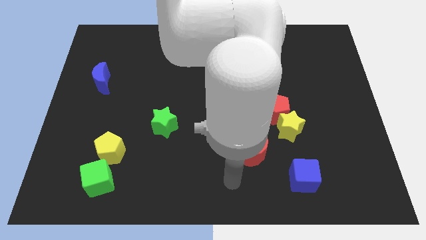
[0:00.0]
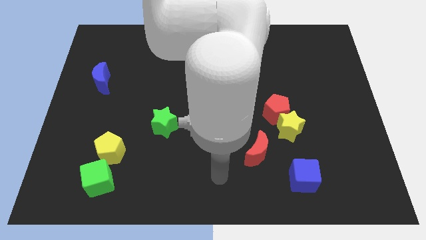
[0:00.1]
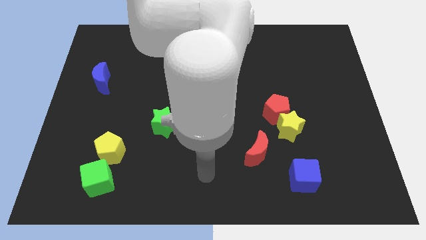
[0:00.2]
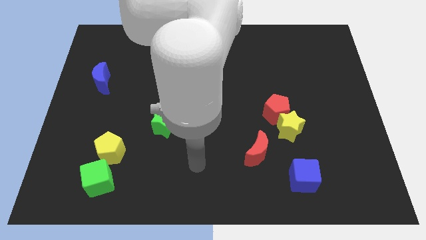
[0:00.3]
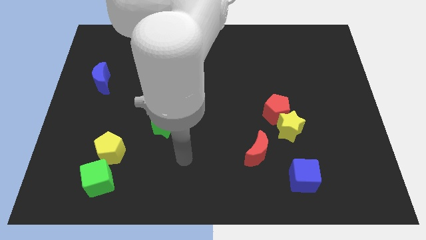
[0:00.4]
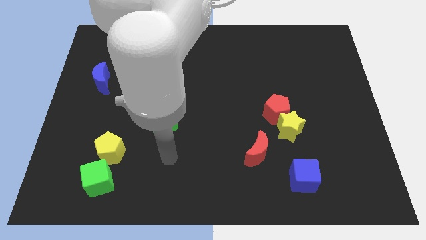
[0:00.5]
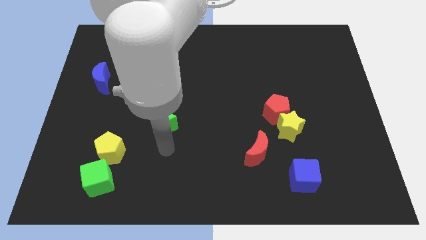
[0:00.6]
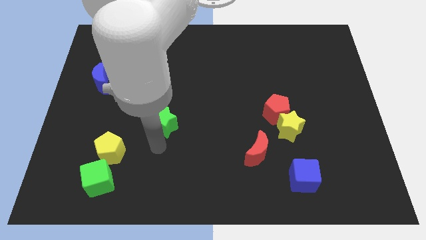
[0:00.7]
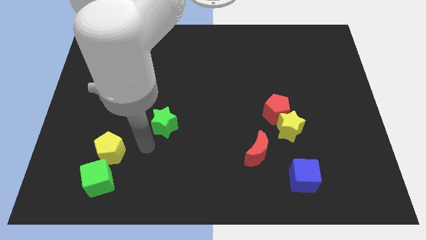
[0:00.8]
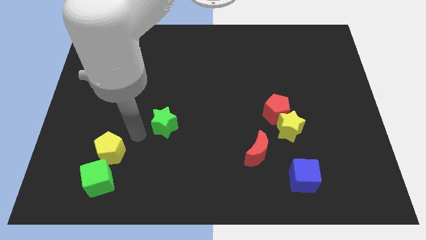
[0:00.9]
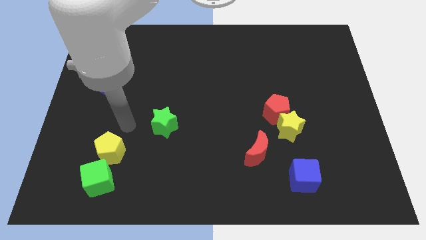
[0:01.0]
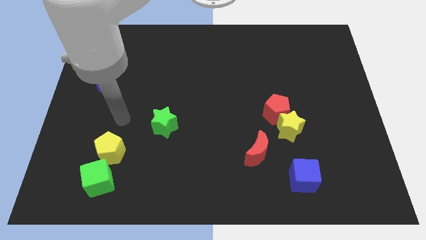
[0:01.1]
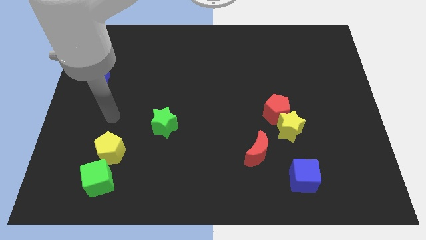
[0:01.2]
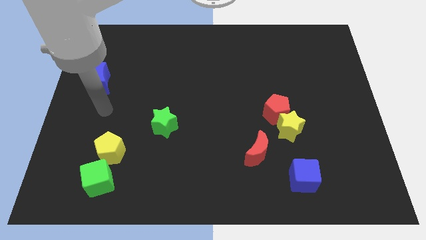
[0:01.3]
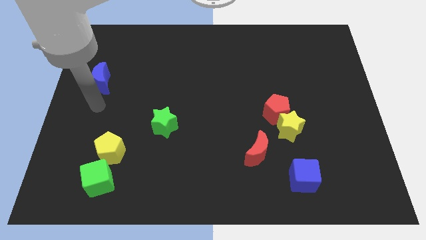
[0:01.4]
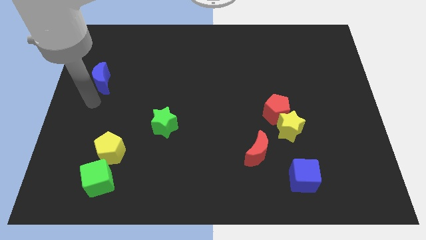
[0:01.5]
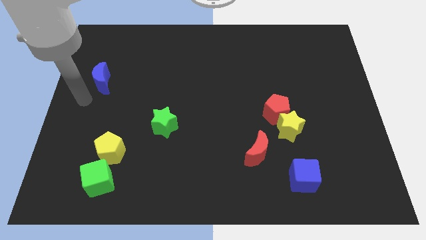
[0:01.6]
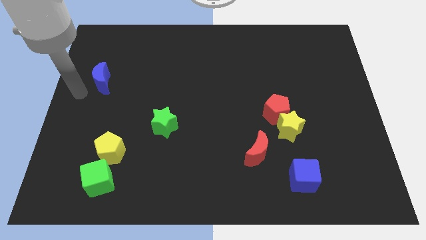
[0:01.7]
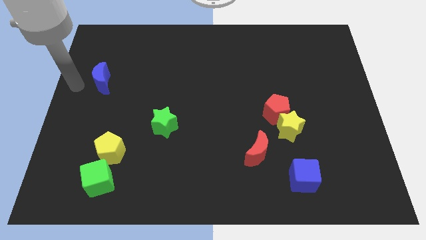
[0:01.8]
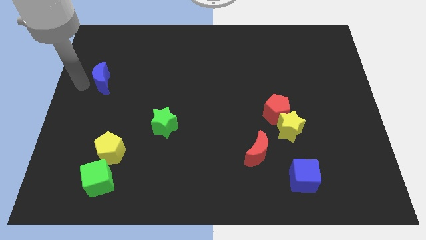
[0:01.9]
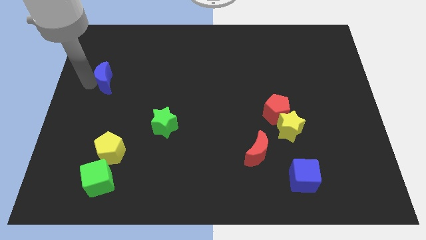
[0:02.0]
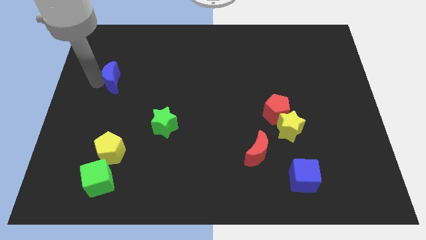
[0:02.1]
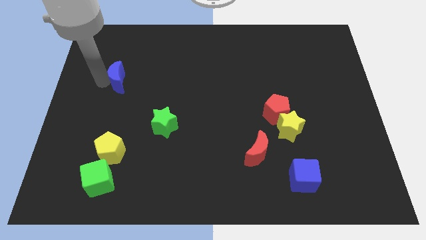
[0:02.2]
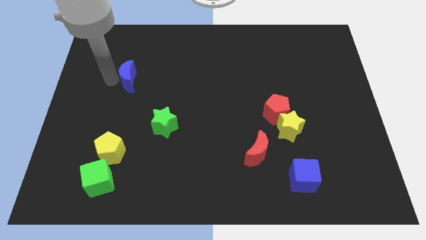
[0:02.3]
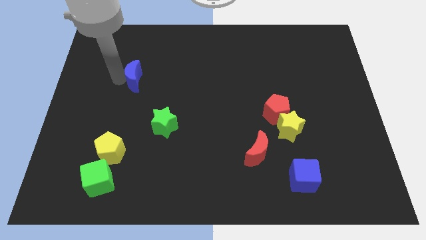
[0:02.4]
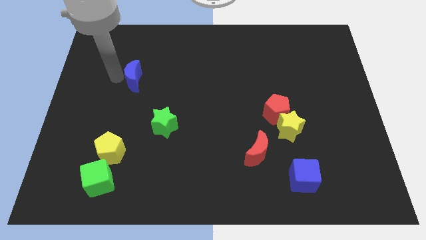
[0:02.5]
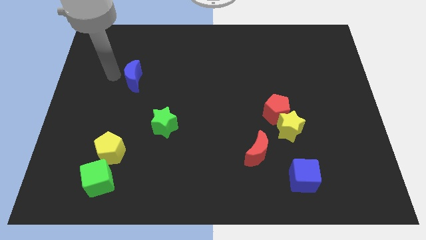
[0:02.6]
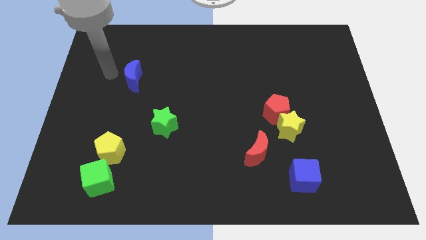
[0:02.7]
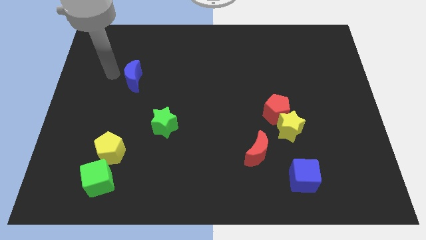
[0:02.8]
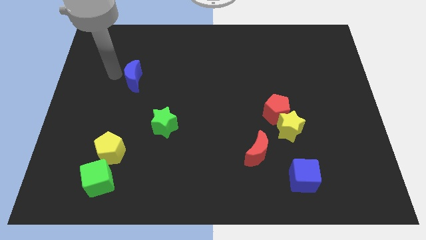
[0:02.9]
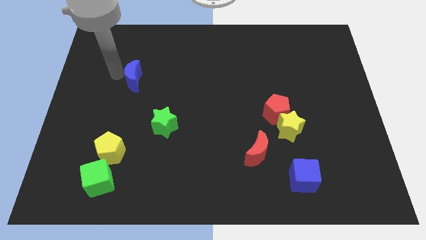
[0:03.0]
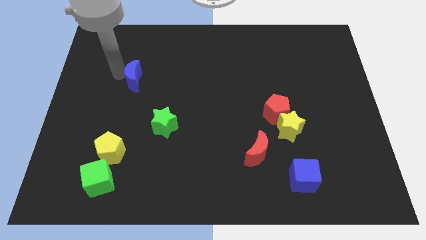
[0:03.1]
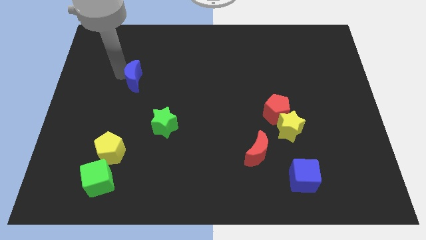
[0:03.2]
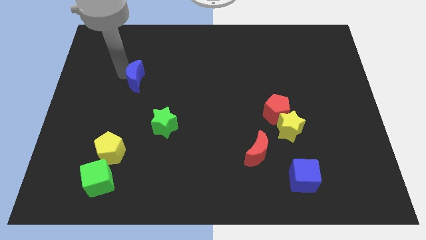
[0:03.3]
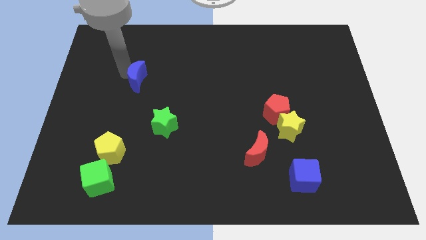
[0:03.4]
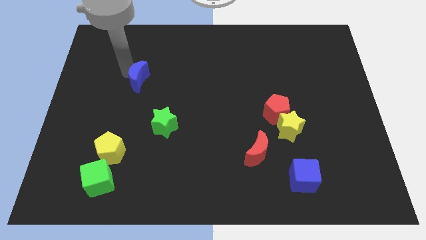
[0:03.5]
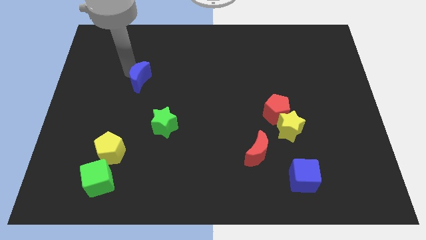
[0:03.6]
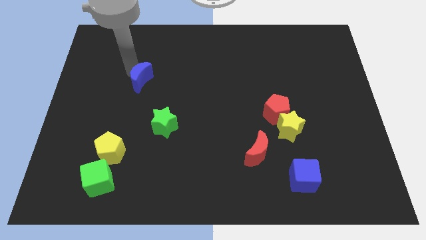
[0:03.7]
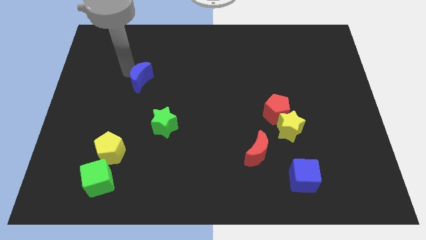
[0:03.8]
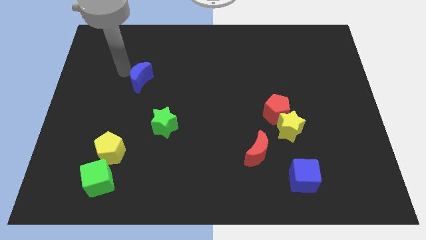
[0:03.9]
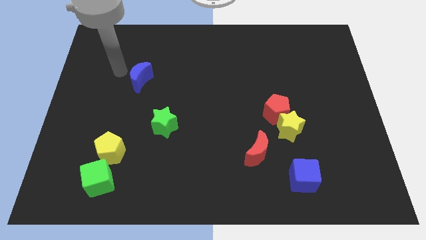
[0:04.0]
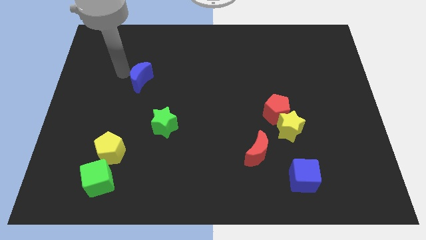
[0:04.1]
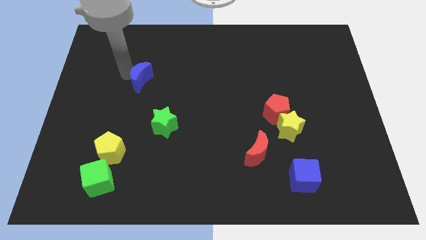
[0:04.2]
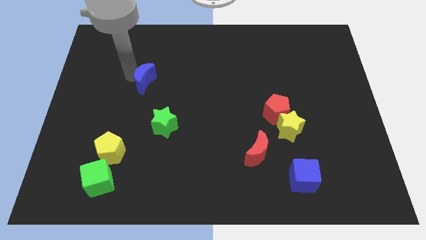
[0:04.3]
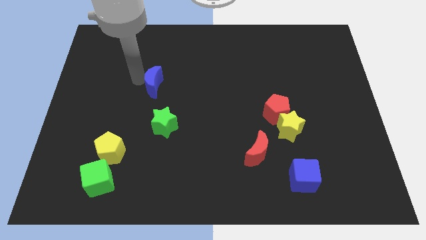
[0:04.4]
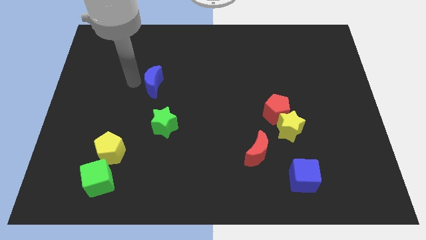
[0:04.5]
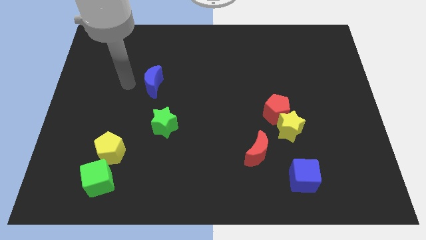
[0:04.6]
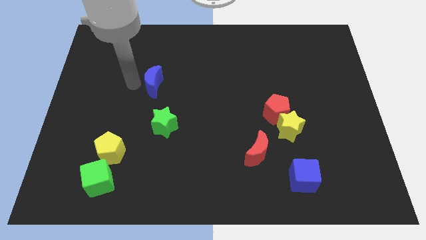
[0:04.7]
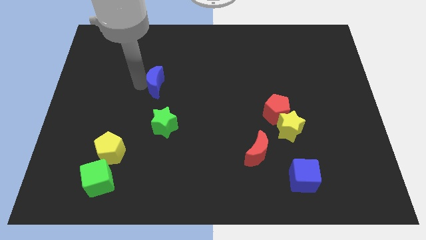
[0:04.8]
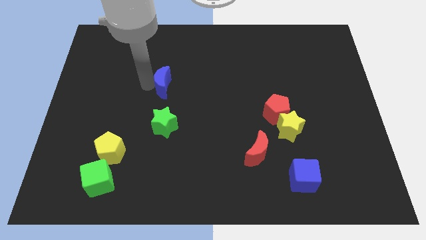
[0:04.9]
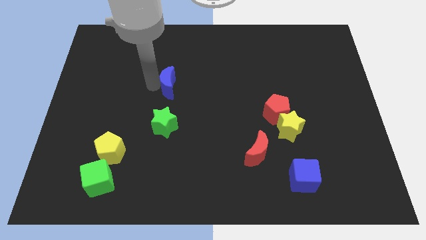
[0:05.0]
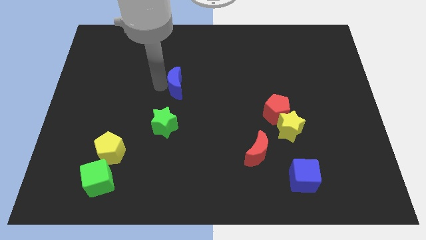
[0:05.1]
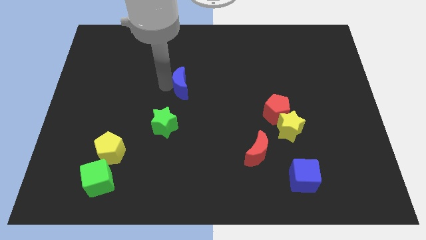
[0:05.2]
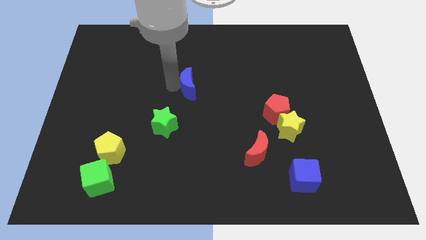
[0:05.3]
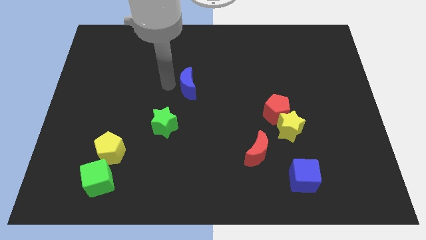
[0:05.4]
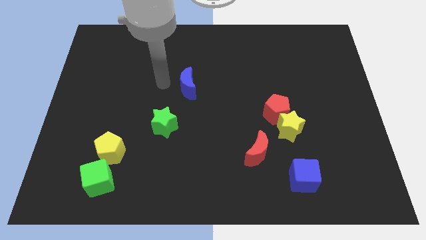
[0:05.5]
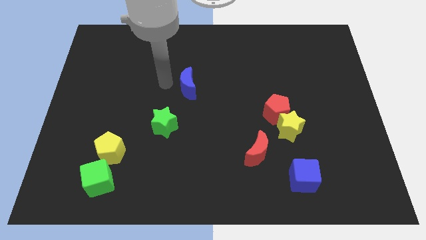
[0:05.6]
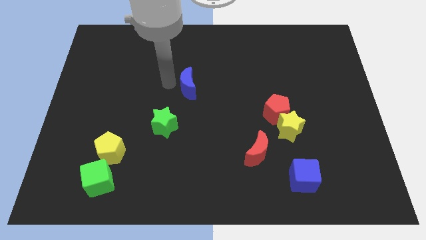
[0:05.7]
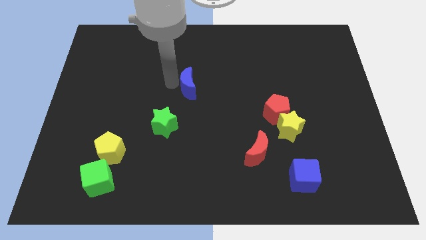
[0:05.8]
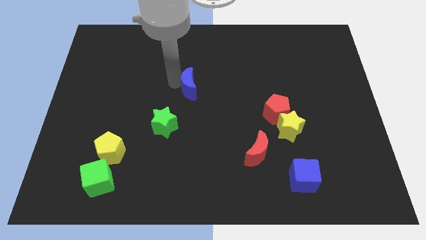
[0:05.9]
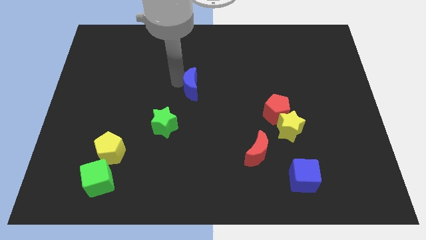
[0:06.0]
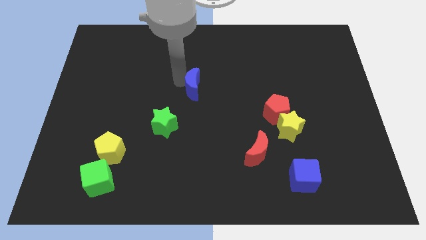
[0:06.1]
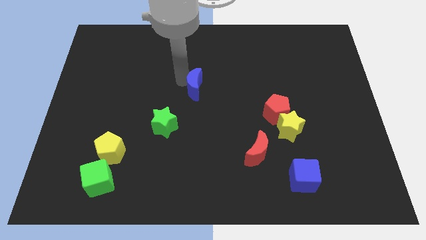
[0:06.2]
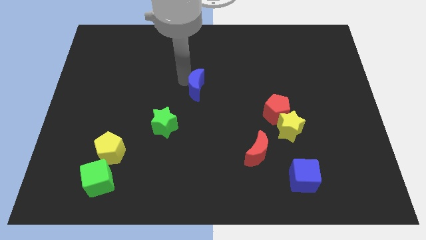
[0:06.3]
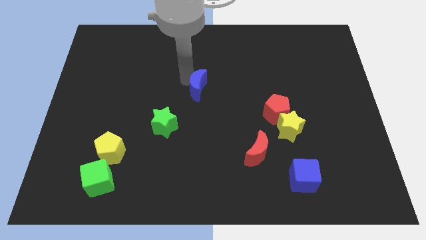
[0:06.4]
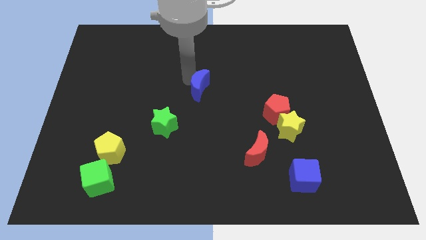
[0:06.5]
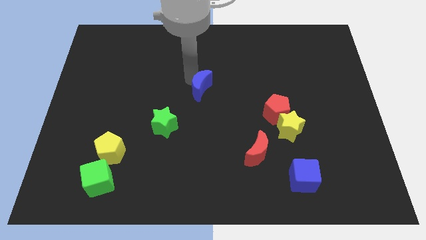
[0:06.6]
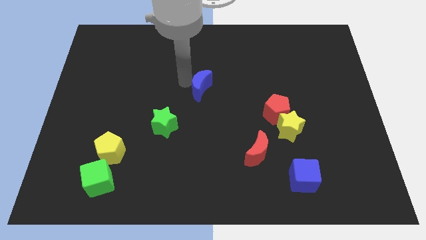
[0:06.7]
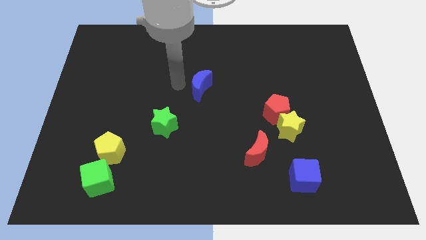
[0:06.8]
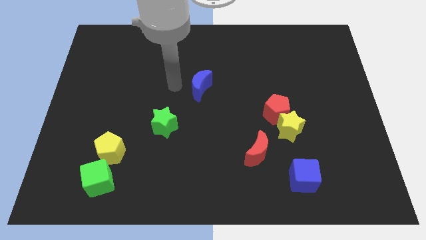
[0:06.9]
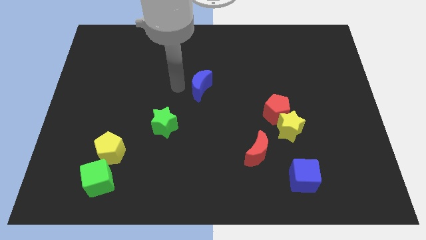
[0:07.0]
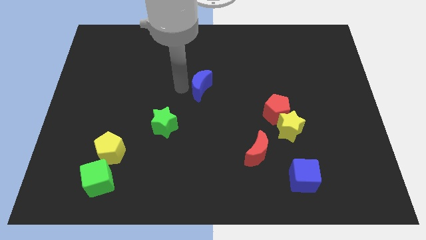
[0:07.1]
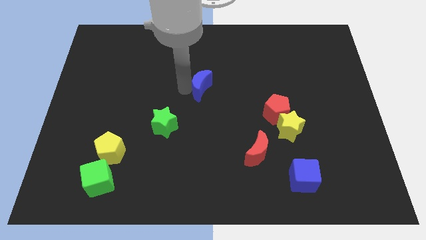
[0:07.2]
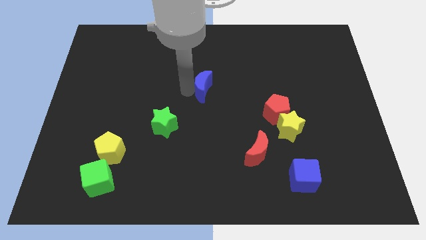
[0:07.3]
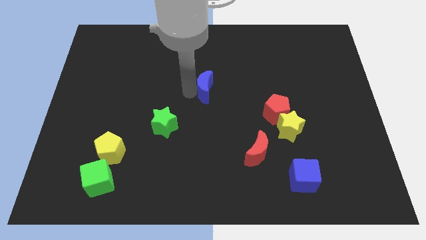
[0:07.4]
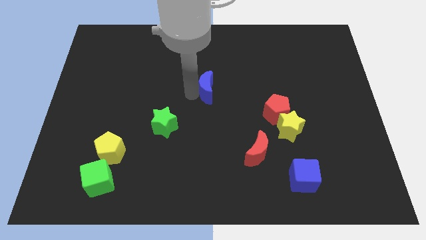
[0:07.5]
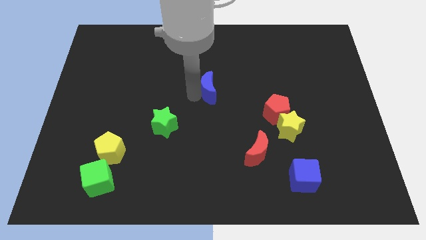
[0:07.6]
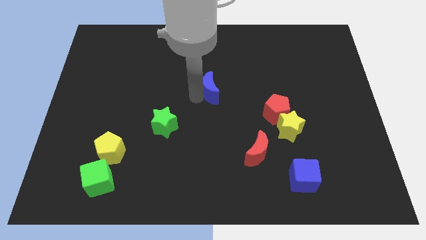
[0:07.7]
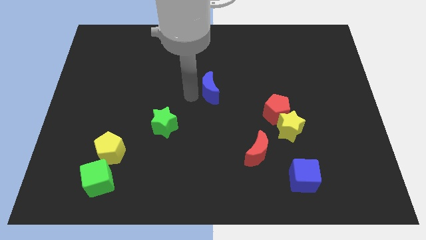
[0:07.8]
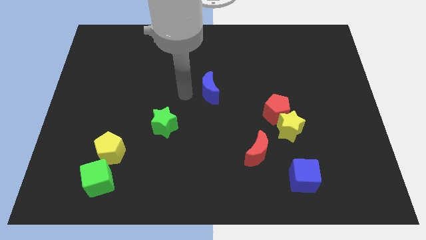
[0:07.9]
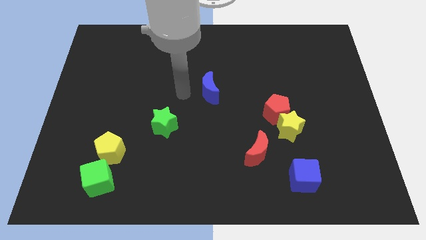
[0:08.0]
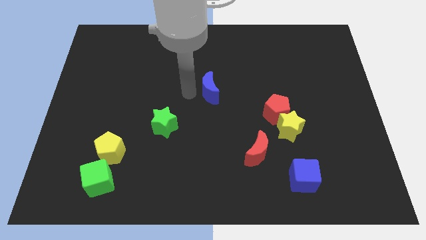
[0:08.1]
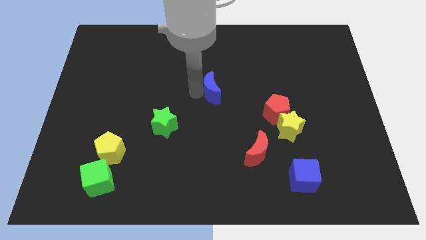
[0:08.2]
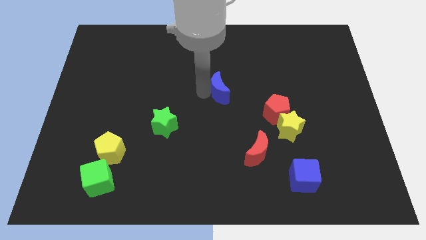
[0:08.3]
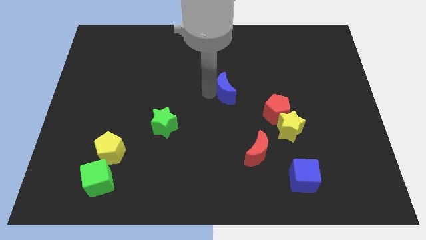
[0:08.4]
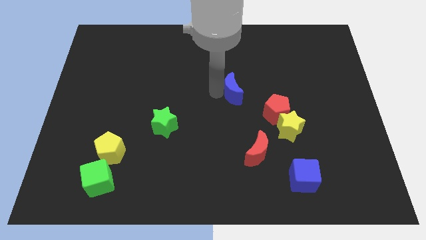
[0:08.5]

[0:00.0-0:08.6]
slide the blue moon to the top left side of the red pentagon
